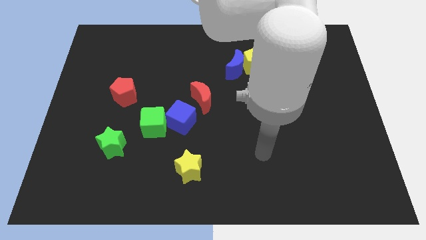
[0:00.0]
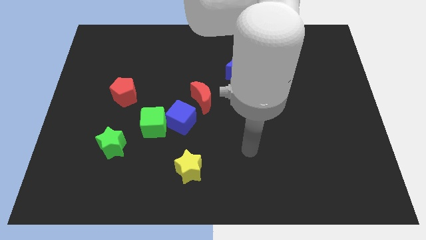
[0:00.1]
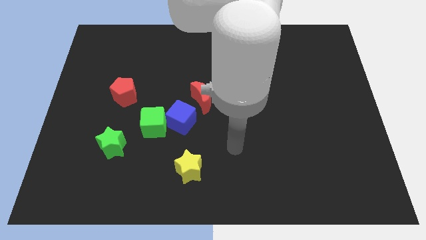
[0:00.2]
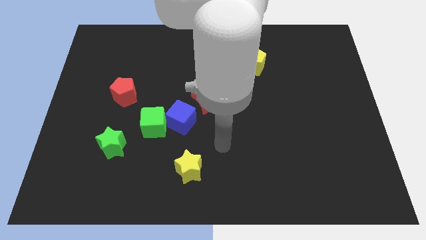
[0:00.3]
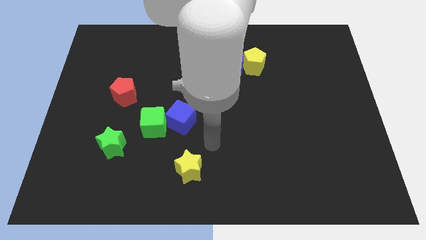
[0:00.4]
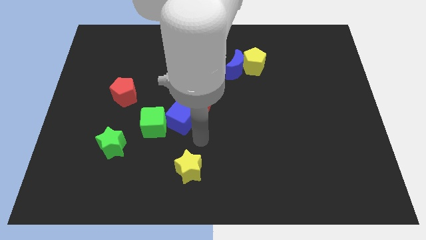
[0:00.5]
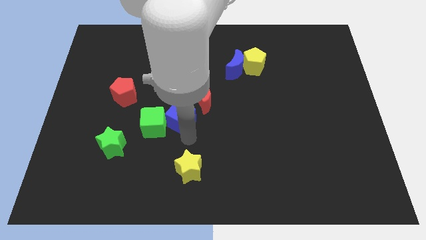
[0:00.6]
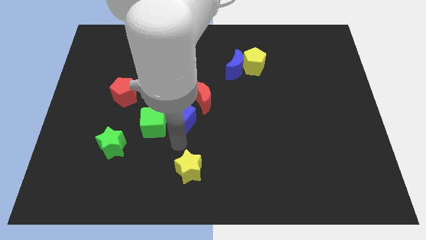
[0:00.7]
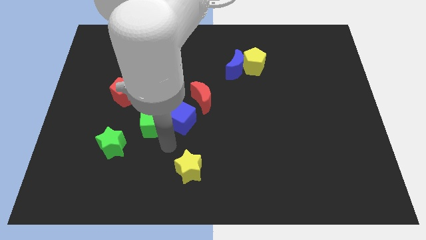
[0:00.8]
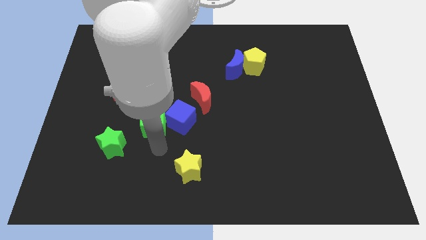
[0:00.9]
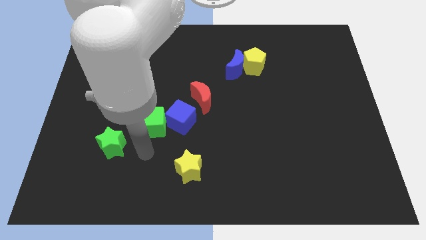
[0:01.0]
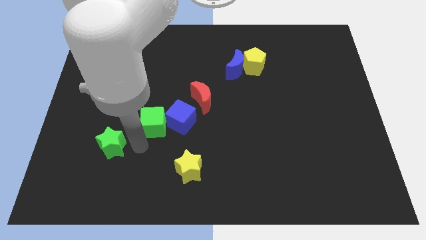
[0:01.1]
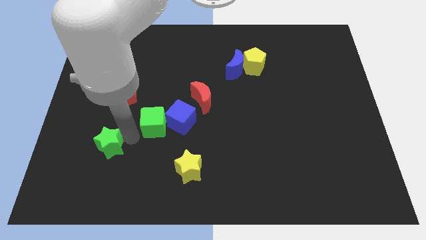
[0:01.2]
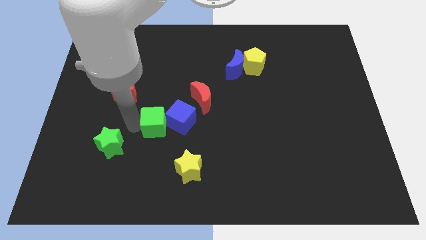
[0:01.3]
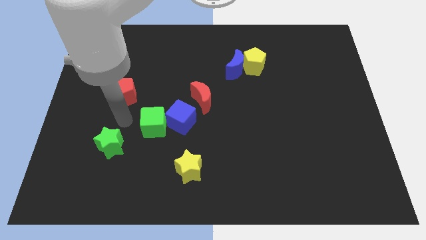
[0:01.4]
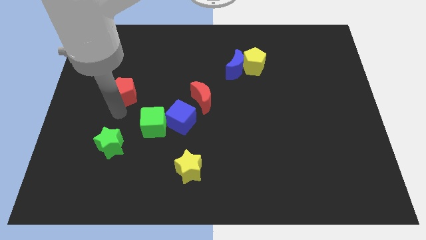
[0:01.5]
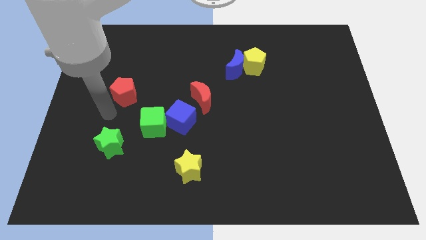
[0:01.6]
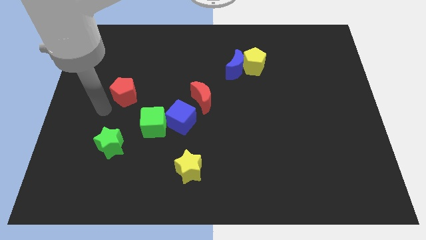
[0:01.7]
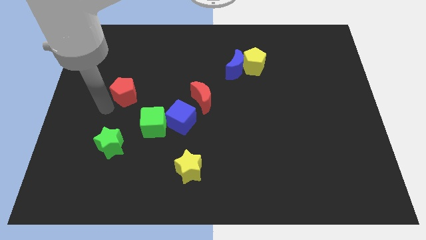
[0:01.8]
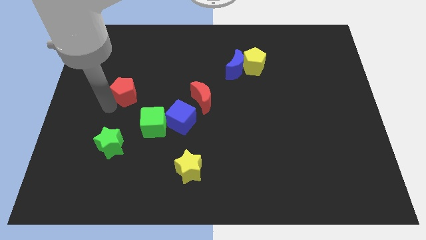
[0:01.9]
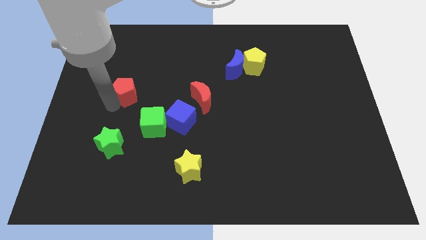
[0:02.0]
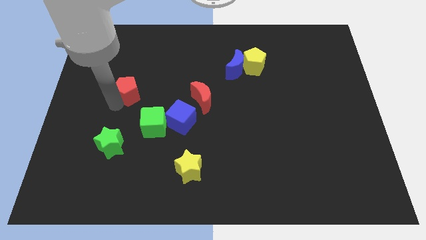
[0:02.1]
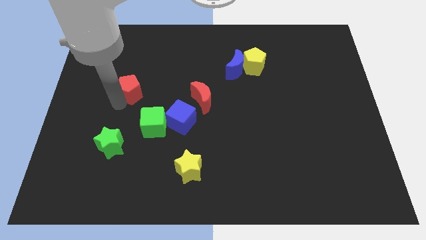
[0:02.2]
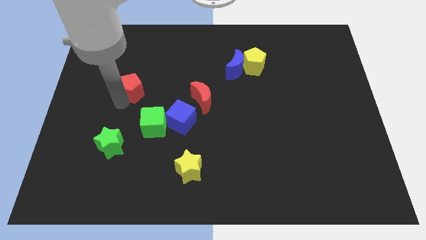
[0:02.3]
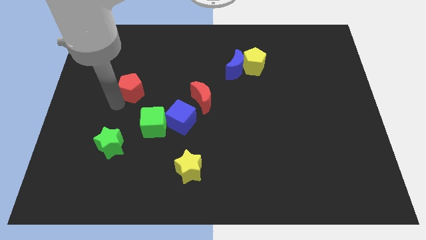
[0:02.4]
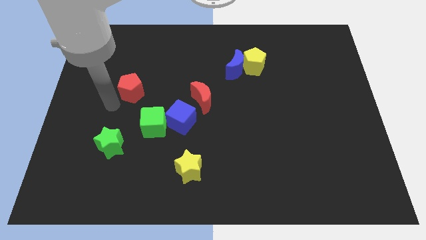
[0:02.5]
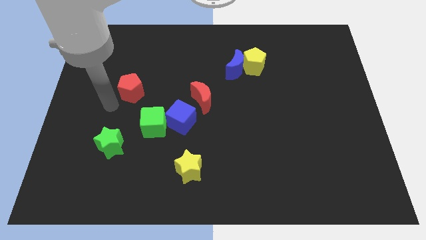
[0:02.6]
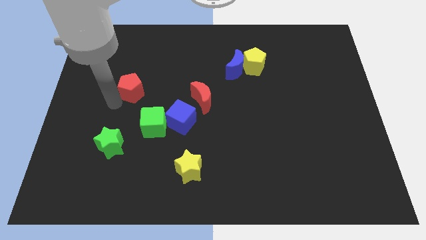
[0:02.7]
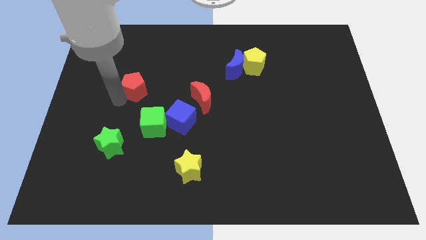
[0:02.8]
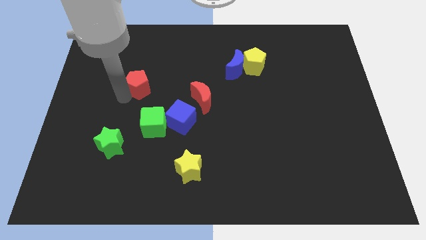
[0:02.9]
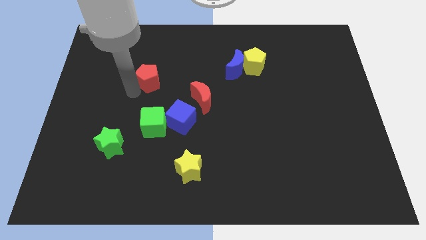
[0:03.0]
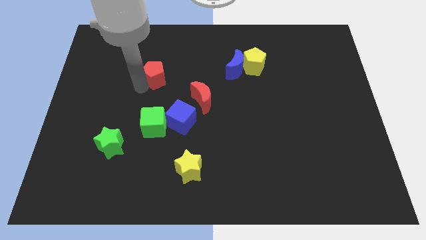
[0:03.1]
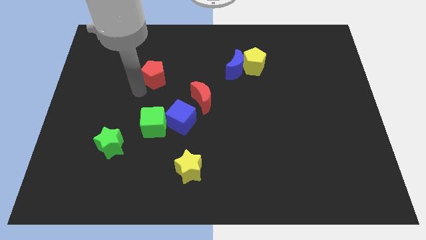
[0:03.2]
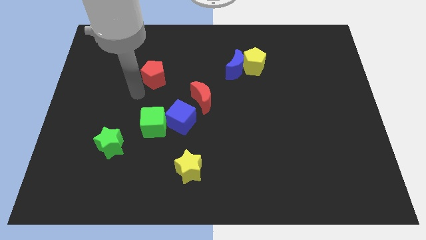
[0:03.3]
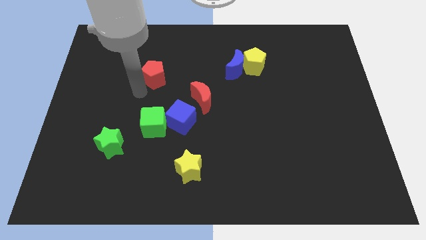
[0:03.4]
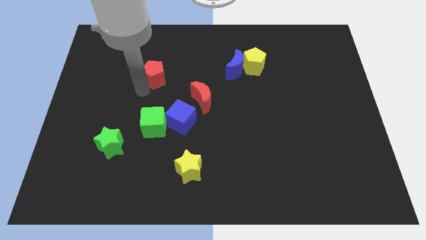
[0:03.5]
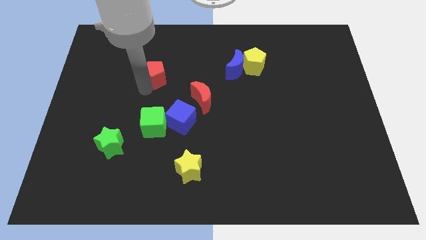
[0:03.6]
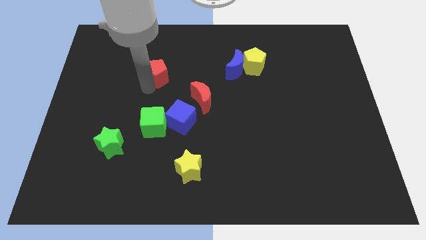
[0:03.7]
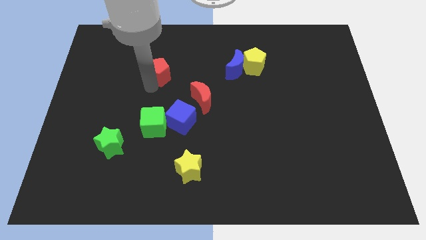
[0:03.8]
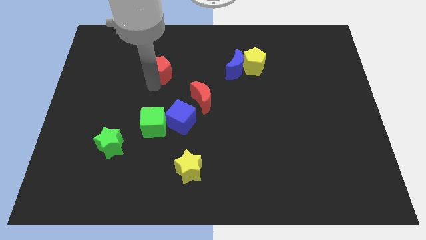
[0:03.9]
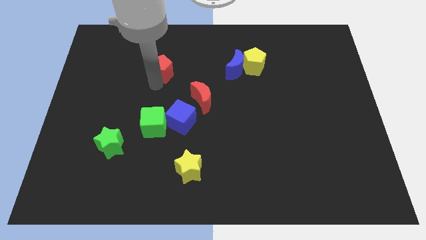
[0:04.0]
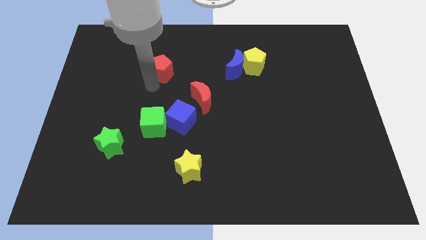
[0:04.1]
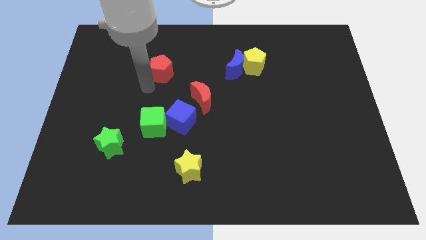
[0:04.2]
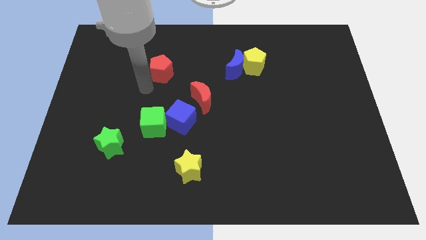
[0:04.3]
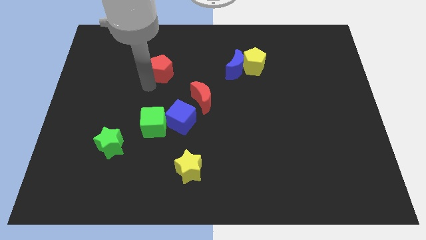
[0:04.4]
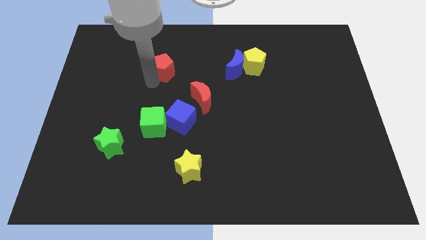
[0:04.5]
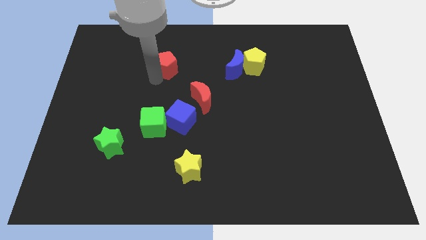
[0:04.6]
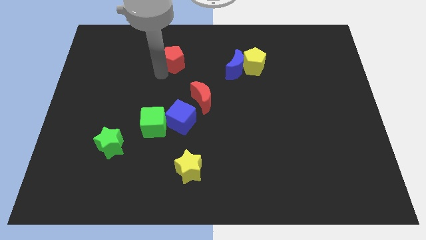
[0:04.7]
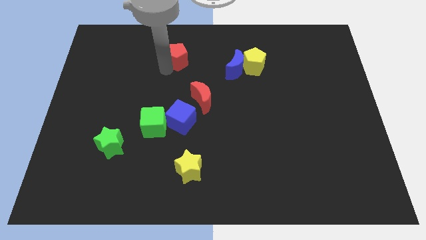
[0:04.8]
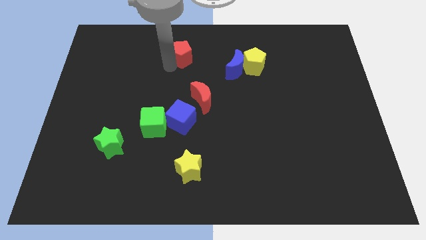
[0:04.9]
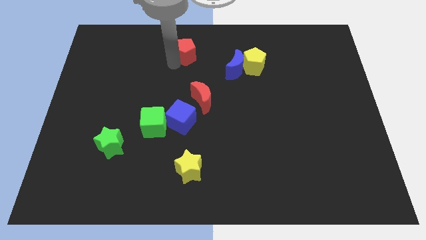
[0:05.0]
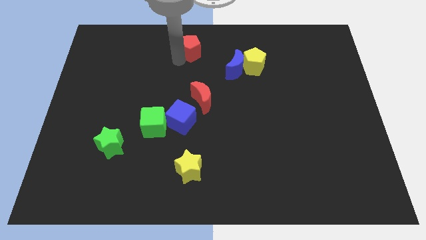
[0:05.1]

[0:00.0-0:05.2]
slide the red pentagon to the top

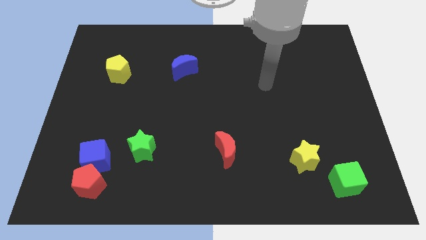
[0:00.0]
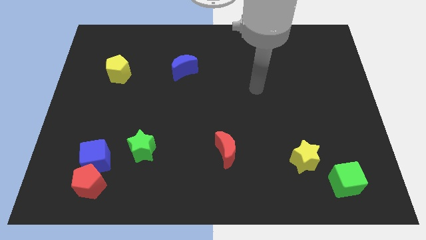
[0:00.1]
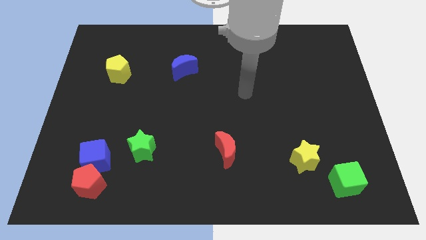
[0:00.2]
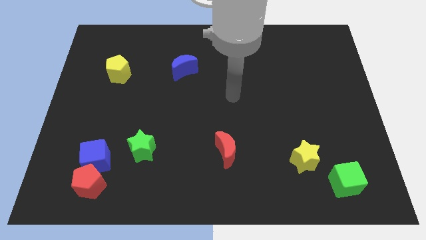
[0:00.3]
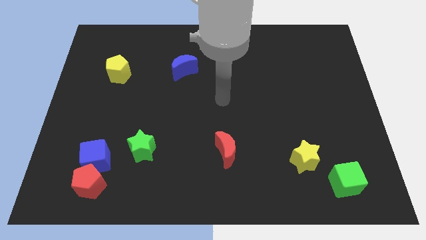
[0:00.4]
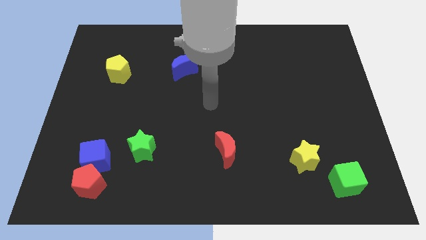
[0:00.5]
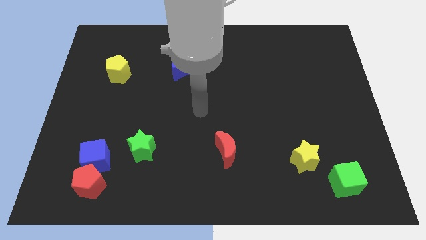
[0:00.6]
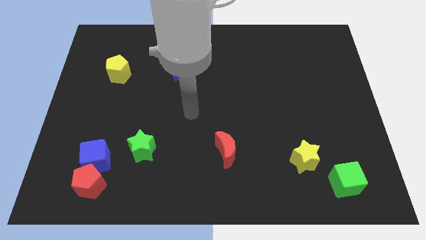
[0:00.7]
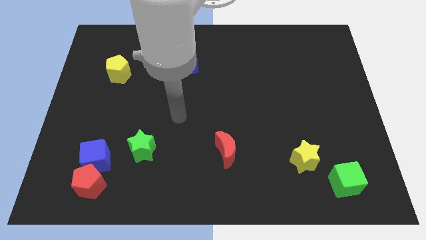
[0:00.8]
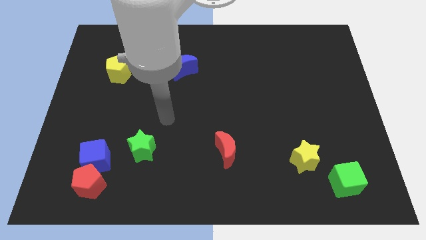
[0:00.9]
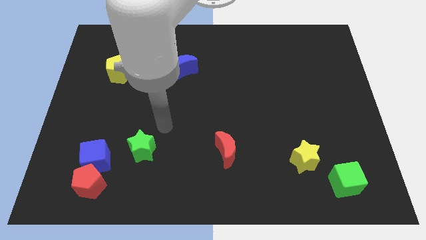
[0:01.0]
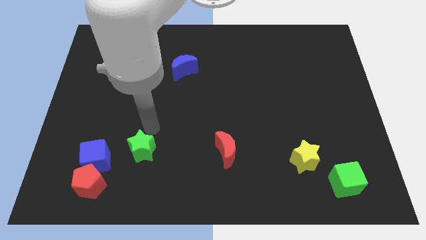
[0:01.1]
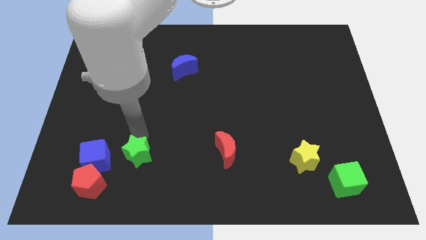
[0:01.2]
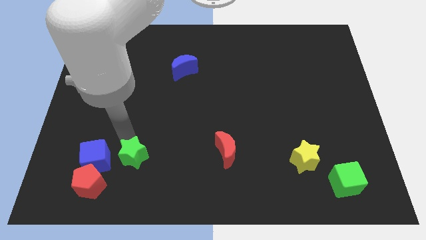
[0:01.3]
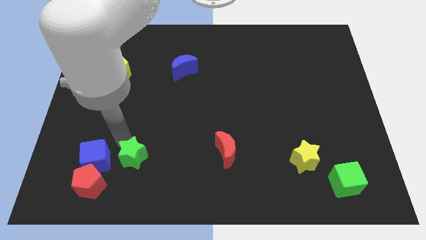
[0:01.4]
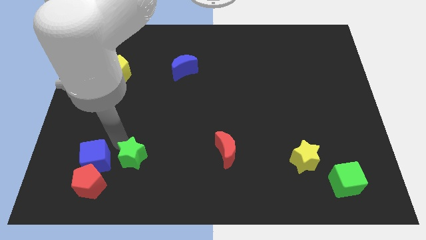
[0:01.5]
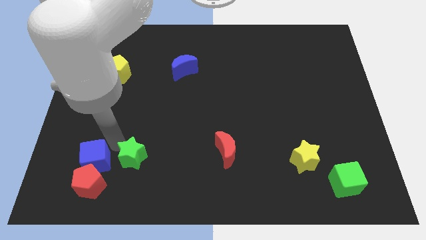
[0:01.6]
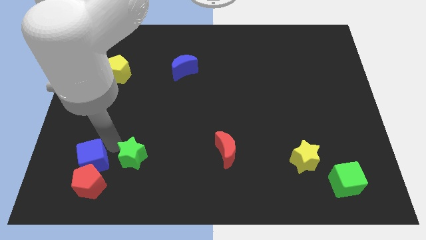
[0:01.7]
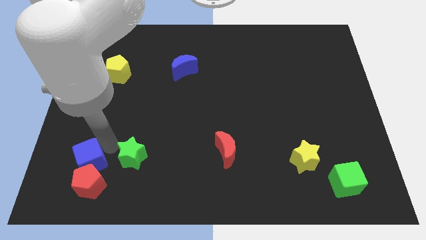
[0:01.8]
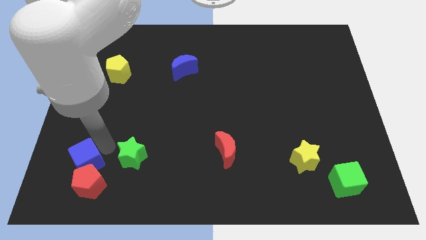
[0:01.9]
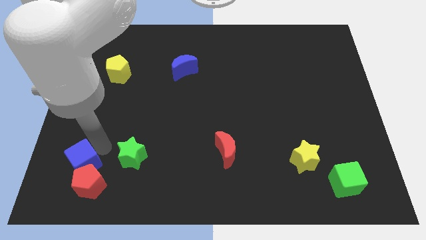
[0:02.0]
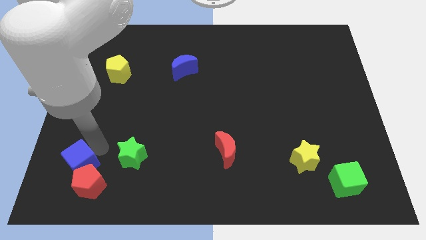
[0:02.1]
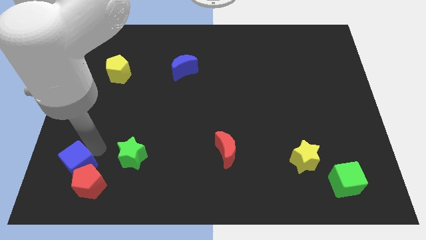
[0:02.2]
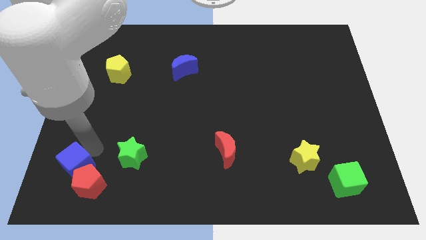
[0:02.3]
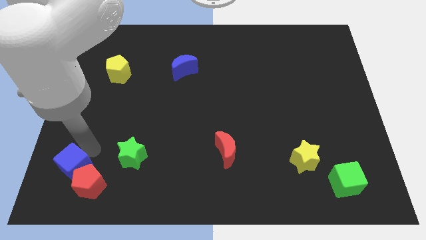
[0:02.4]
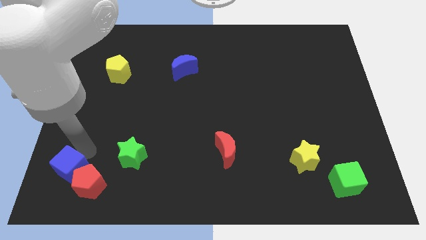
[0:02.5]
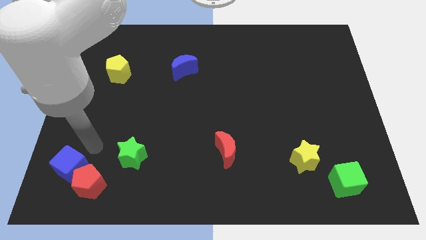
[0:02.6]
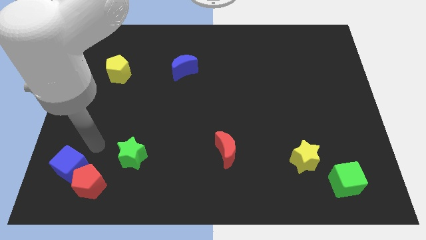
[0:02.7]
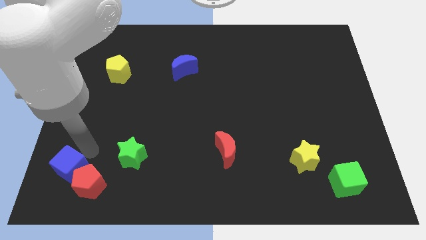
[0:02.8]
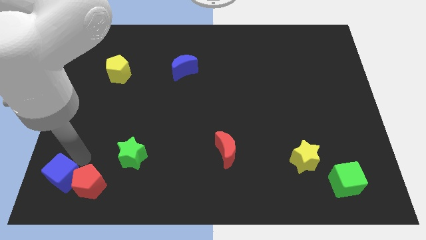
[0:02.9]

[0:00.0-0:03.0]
push the blue cube to the lower left corner
